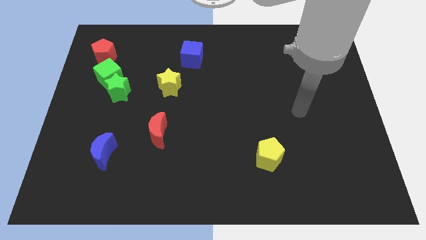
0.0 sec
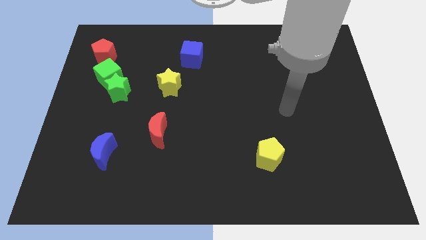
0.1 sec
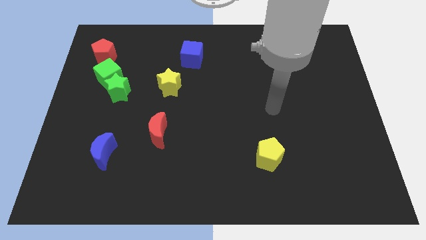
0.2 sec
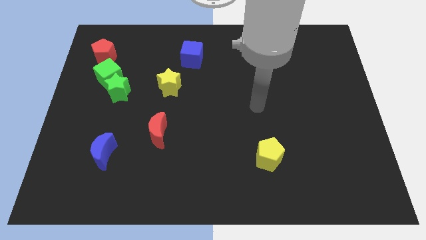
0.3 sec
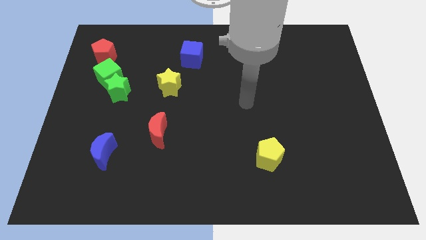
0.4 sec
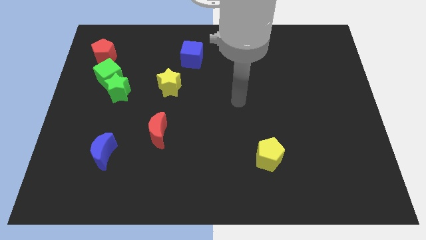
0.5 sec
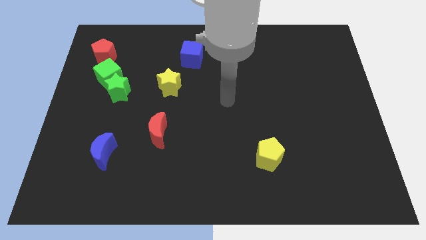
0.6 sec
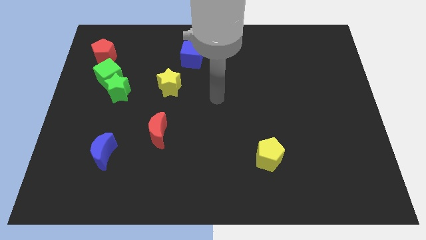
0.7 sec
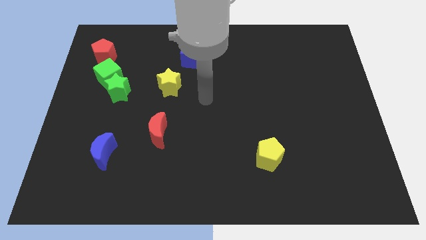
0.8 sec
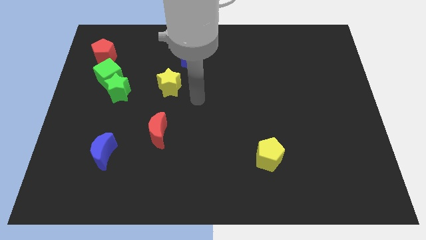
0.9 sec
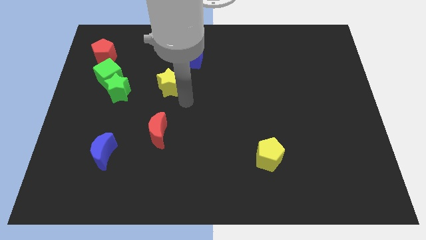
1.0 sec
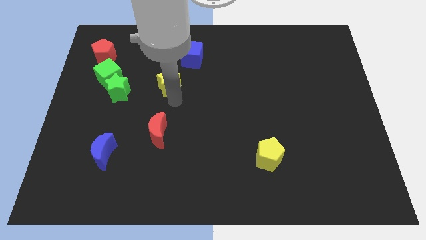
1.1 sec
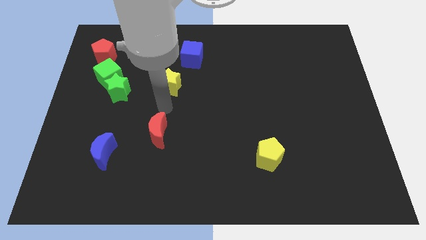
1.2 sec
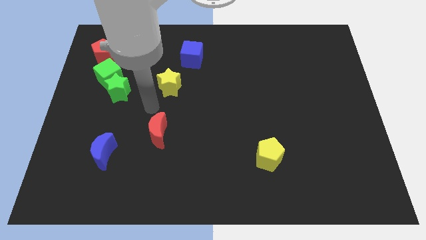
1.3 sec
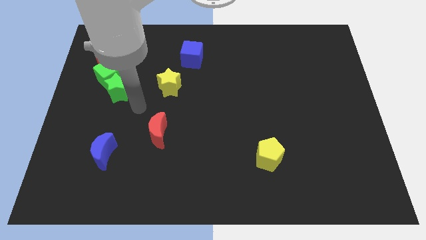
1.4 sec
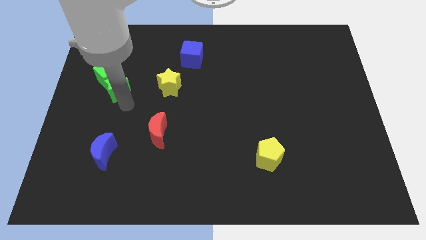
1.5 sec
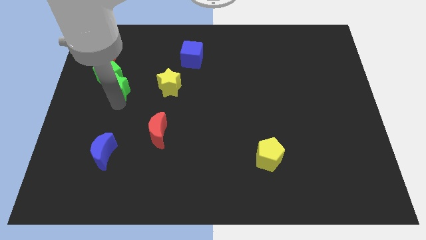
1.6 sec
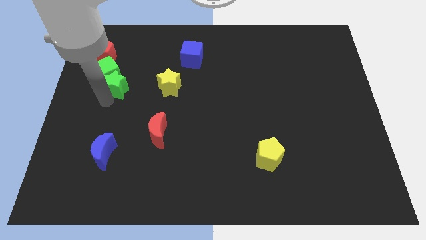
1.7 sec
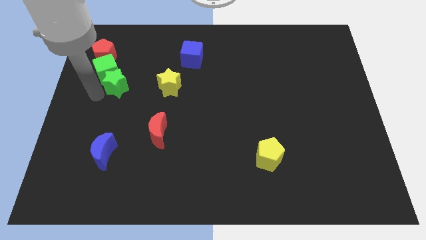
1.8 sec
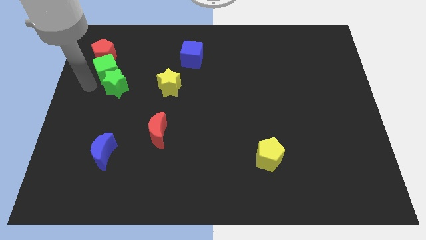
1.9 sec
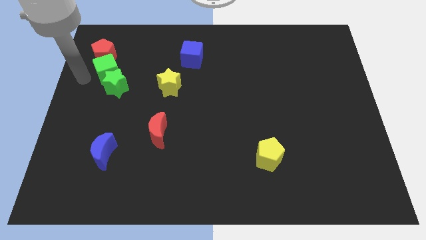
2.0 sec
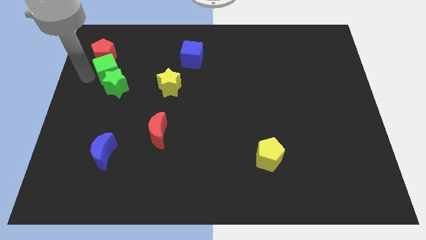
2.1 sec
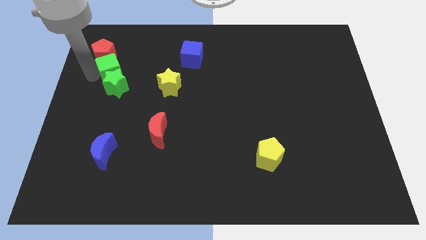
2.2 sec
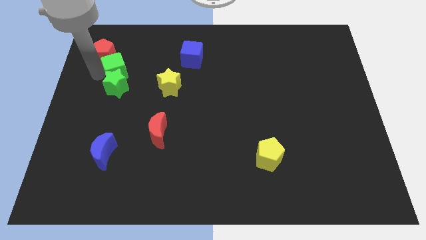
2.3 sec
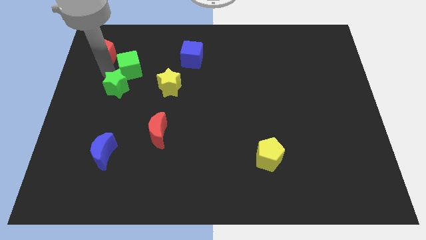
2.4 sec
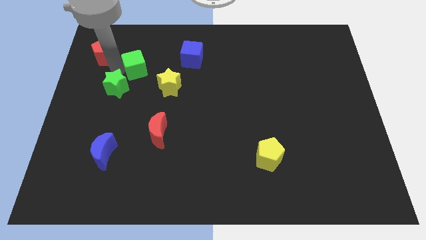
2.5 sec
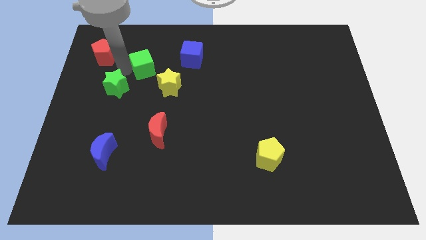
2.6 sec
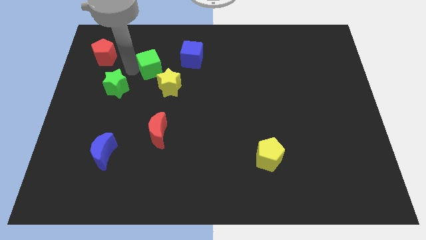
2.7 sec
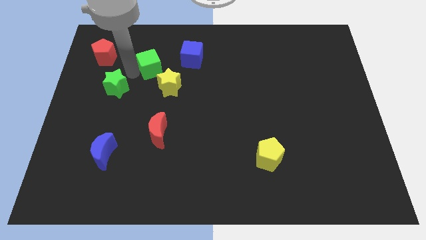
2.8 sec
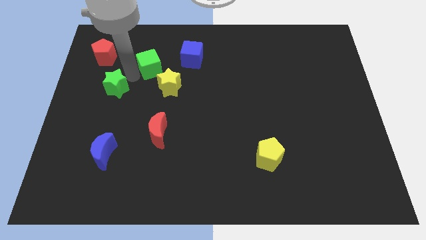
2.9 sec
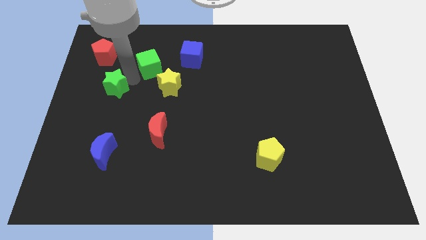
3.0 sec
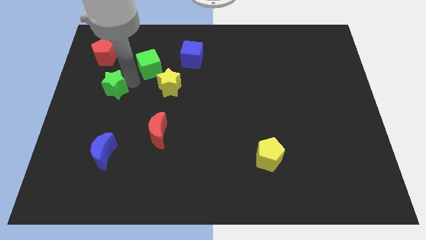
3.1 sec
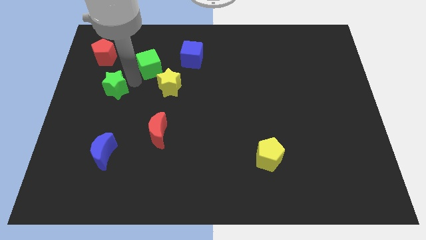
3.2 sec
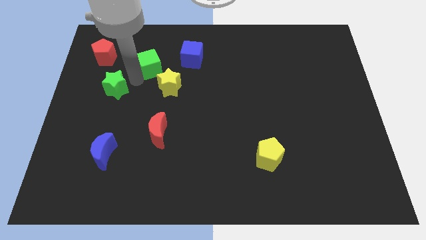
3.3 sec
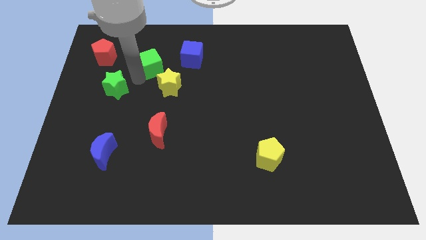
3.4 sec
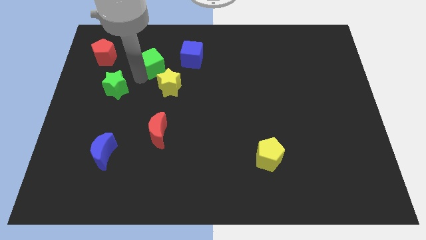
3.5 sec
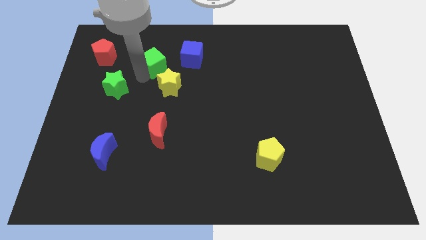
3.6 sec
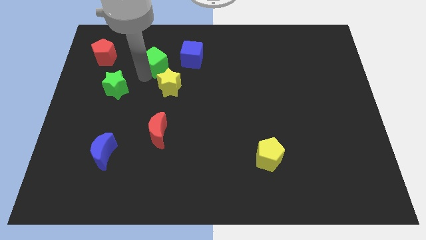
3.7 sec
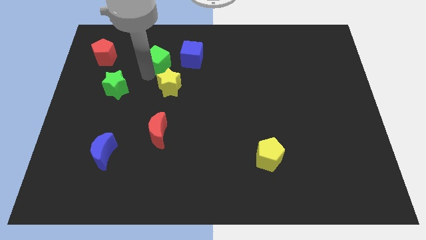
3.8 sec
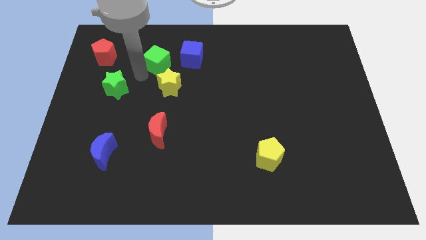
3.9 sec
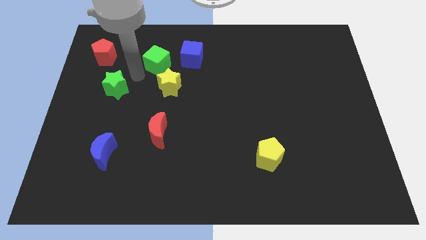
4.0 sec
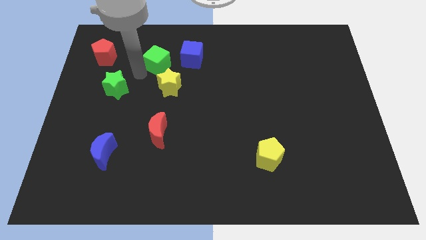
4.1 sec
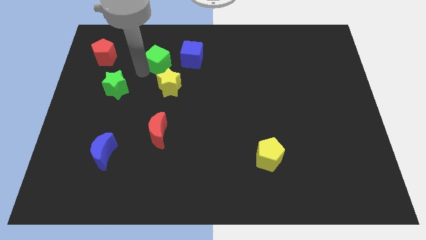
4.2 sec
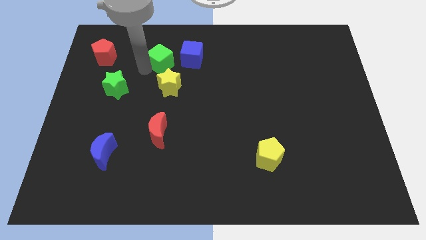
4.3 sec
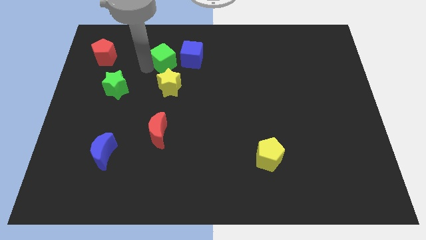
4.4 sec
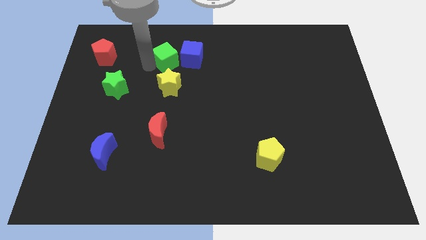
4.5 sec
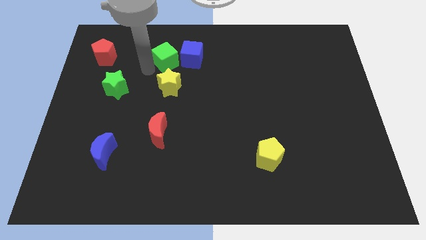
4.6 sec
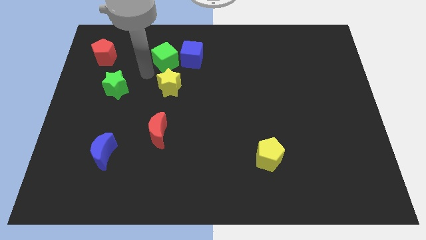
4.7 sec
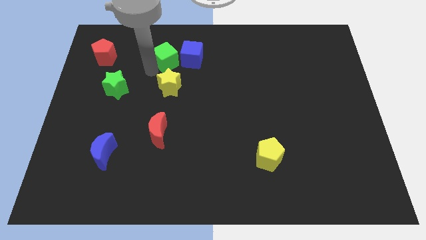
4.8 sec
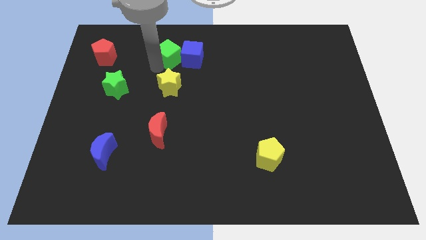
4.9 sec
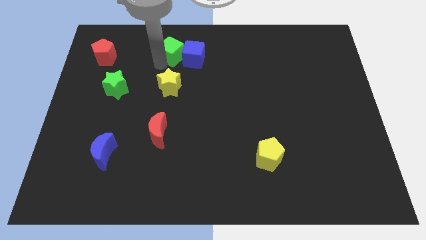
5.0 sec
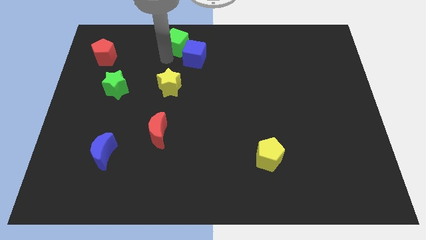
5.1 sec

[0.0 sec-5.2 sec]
push the green cube to the top side

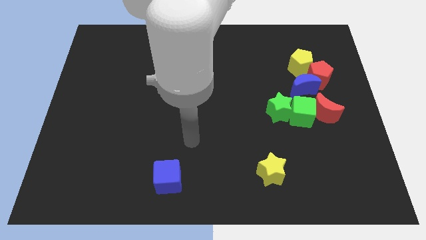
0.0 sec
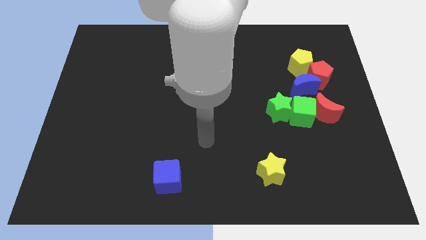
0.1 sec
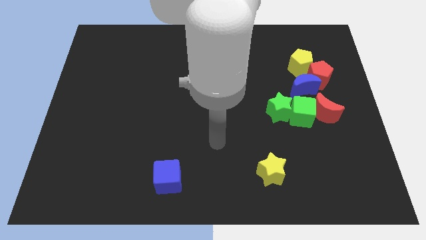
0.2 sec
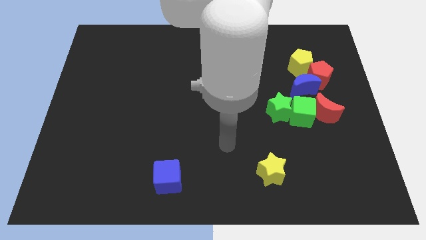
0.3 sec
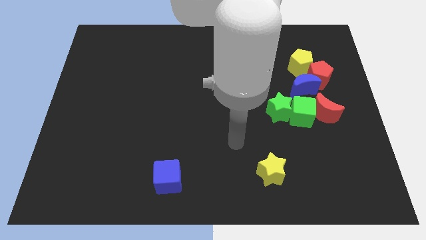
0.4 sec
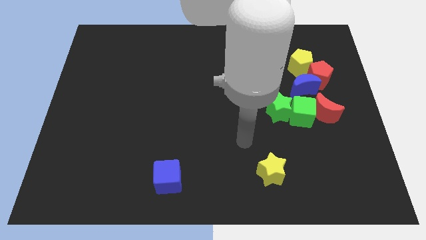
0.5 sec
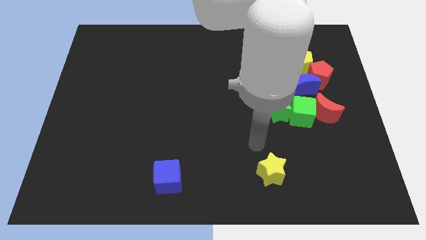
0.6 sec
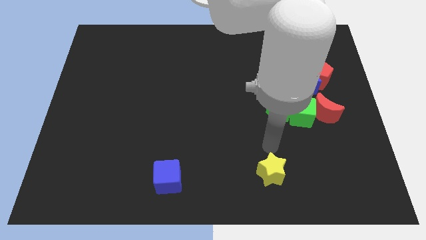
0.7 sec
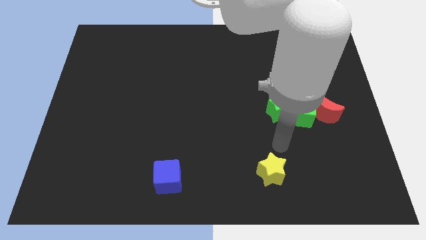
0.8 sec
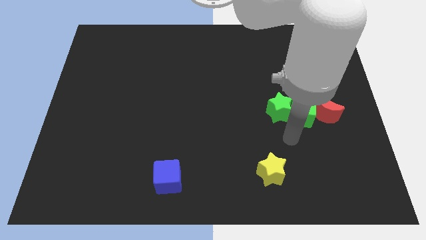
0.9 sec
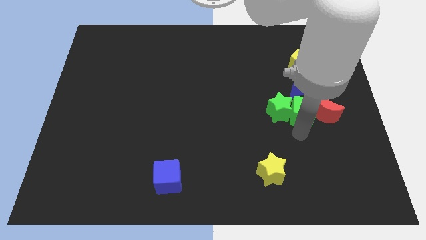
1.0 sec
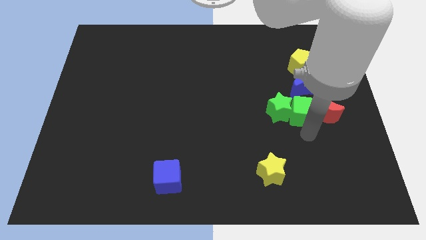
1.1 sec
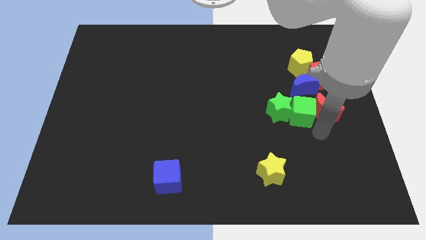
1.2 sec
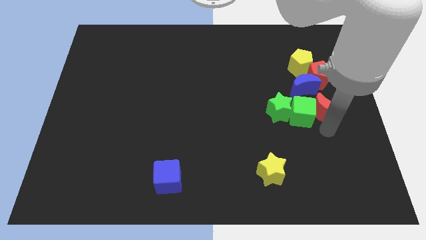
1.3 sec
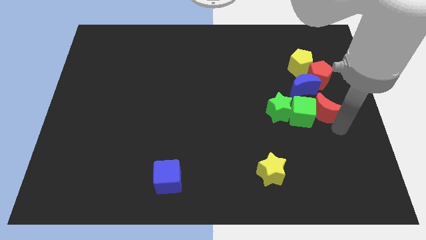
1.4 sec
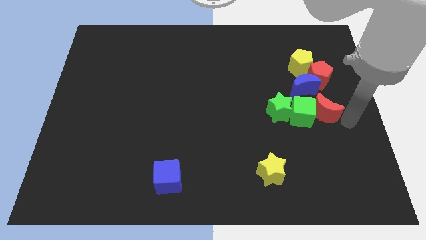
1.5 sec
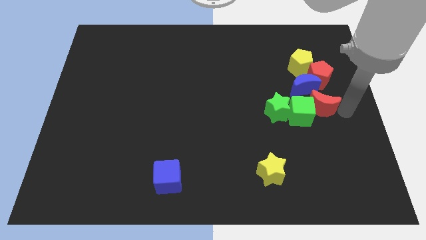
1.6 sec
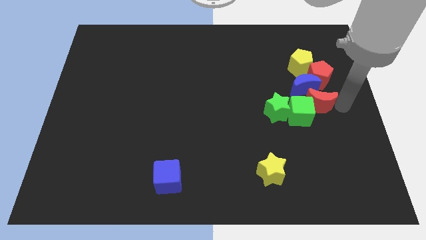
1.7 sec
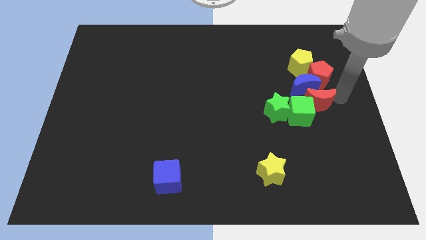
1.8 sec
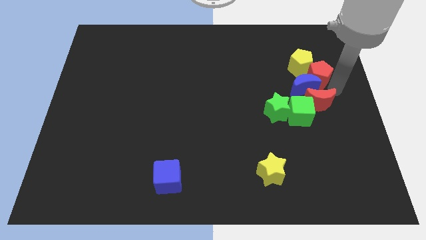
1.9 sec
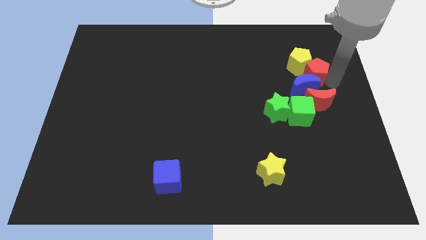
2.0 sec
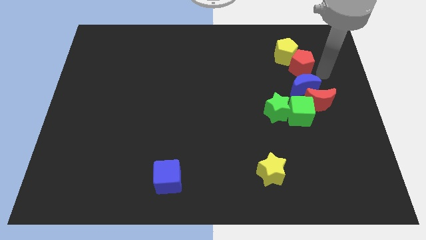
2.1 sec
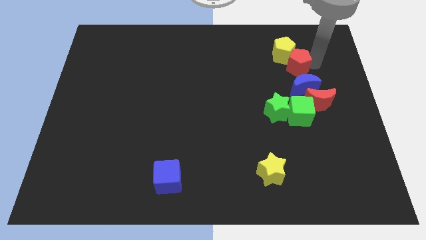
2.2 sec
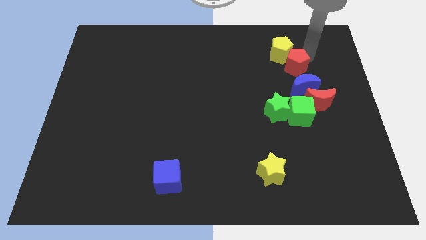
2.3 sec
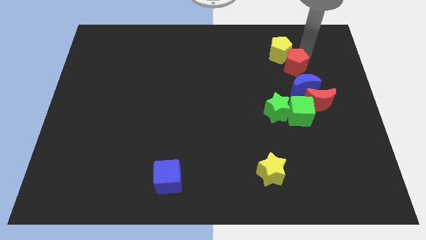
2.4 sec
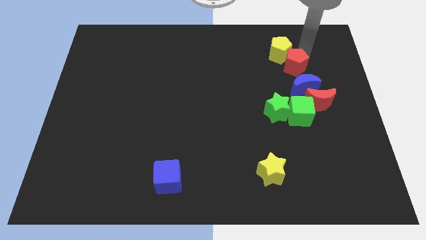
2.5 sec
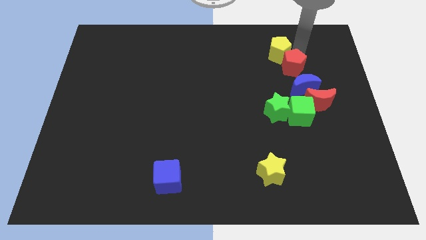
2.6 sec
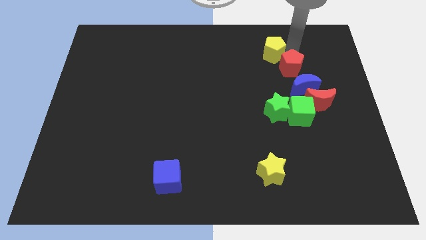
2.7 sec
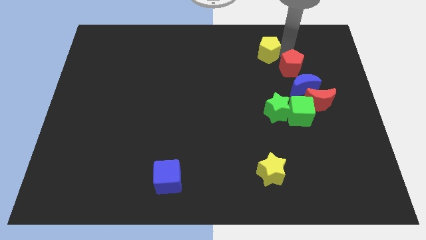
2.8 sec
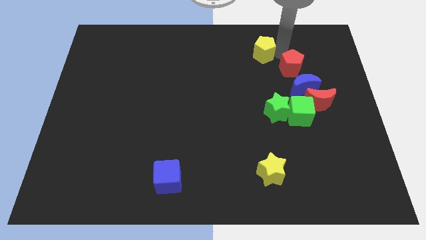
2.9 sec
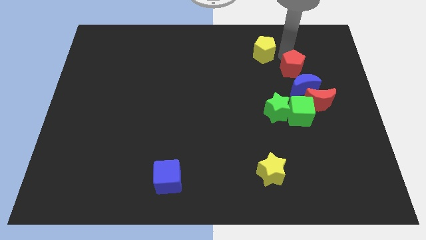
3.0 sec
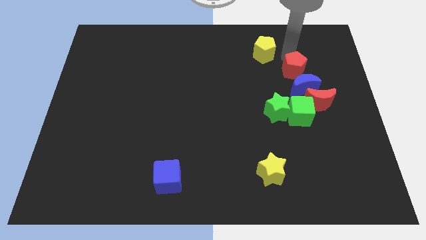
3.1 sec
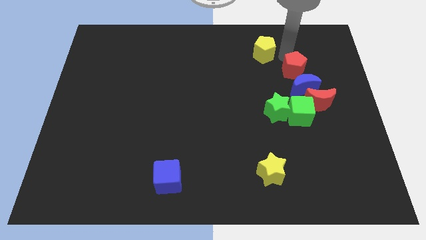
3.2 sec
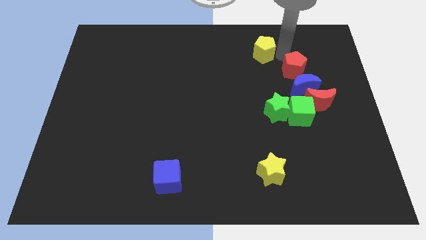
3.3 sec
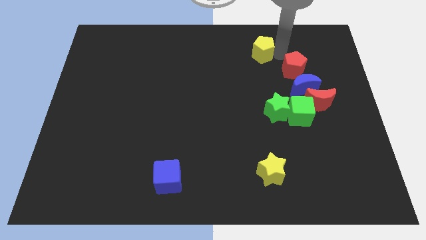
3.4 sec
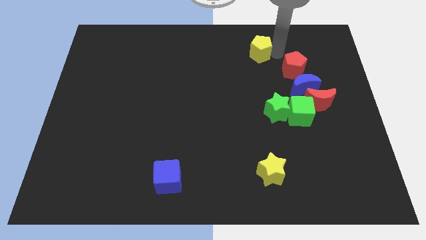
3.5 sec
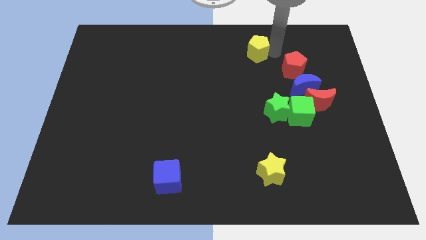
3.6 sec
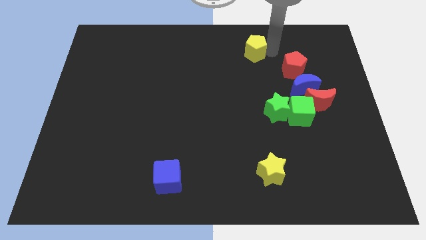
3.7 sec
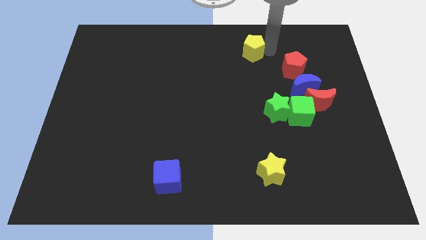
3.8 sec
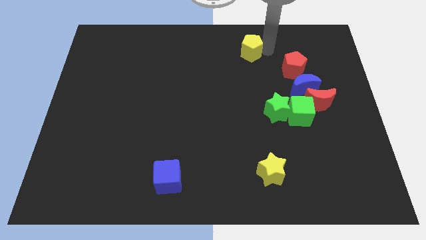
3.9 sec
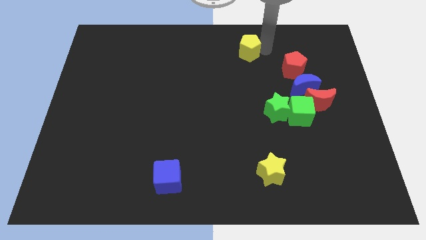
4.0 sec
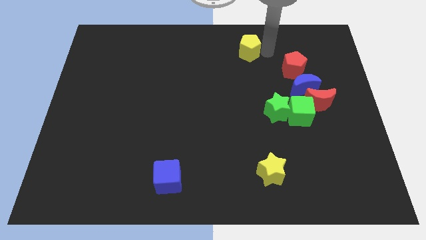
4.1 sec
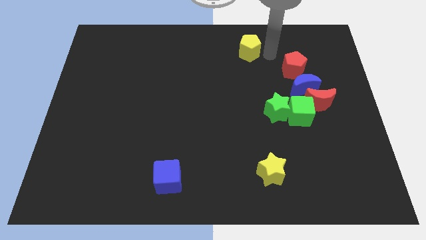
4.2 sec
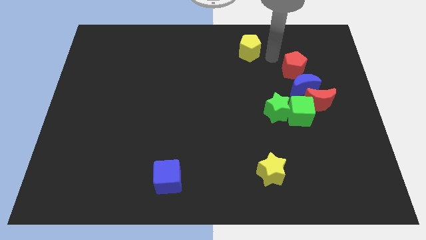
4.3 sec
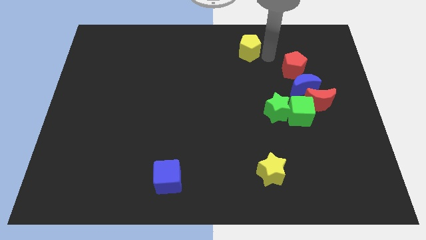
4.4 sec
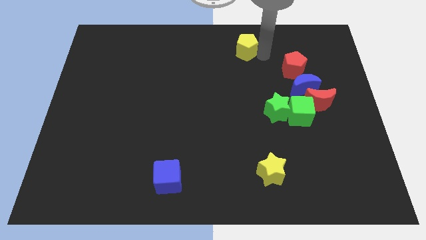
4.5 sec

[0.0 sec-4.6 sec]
slide the yellow pentagon to the top side
